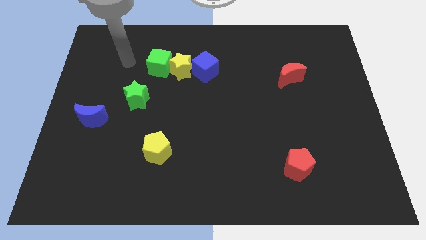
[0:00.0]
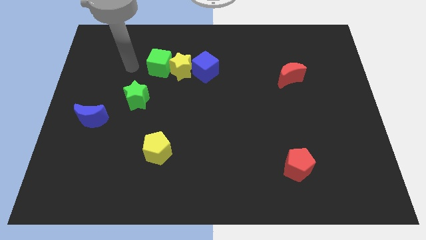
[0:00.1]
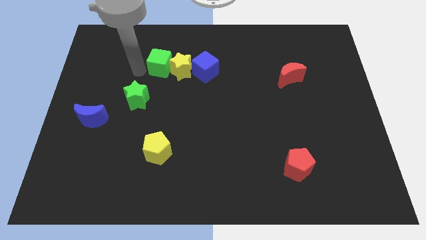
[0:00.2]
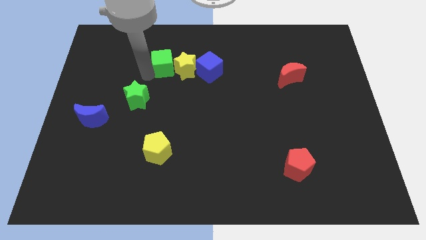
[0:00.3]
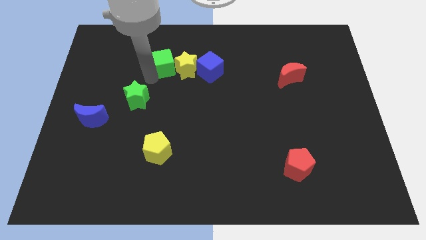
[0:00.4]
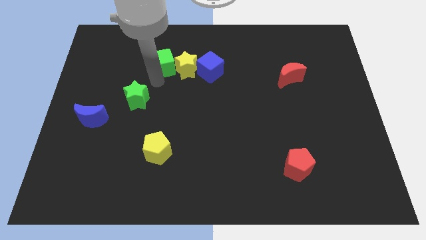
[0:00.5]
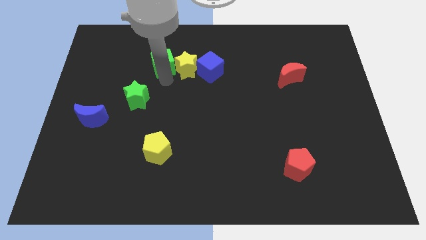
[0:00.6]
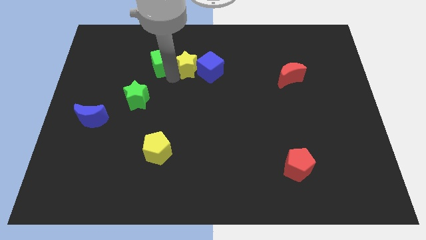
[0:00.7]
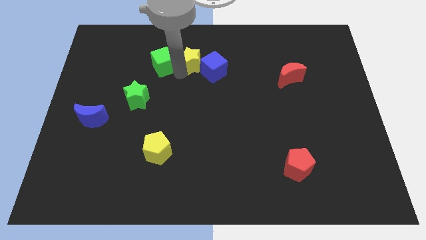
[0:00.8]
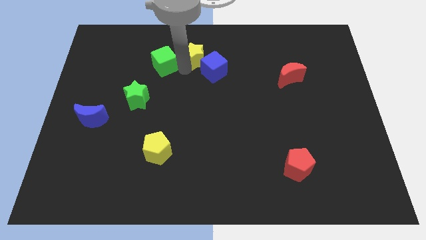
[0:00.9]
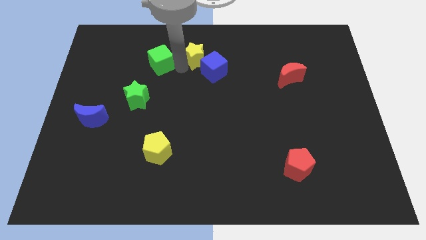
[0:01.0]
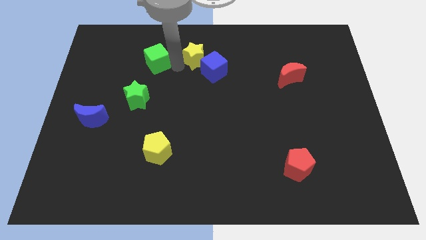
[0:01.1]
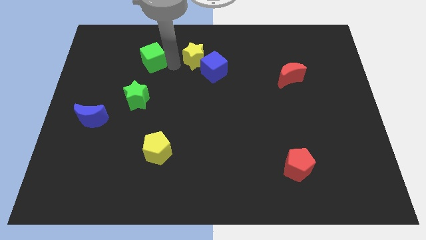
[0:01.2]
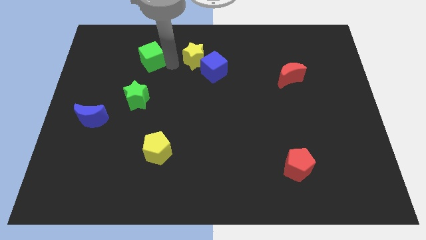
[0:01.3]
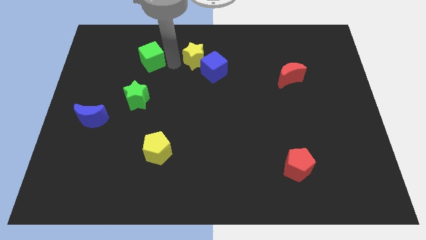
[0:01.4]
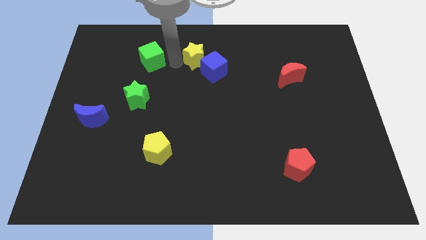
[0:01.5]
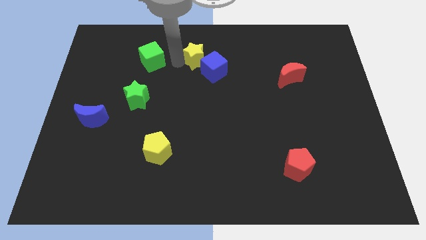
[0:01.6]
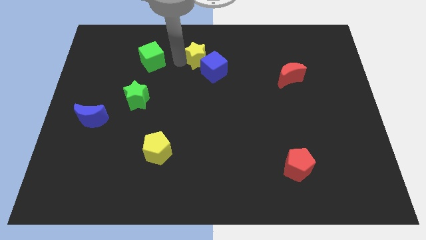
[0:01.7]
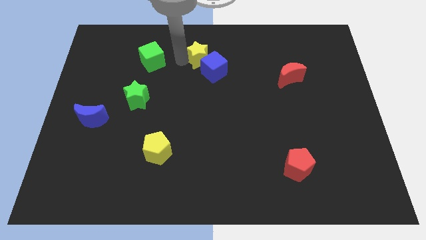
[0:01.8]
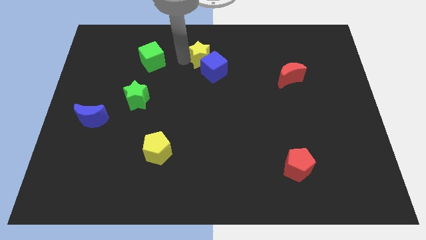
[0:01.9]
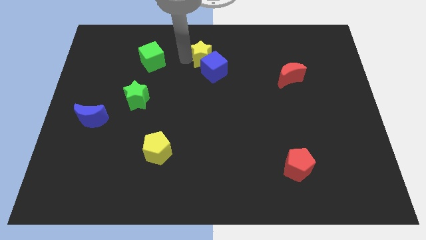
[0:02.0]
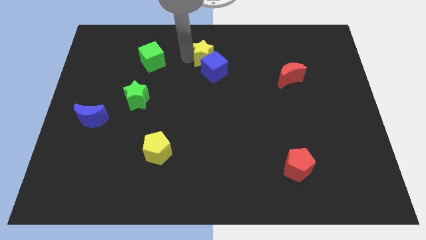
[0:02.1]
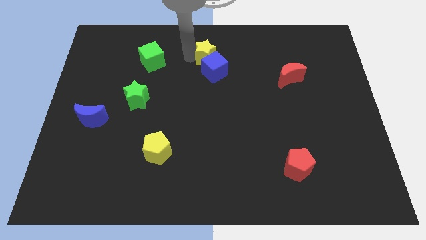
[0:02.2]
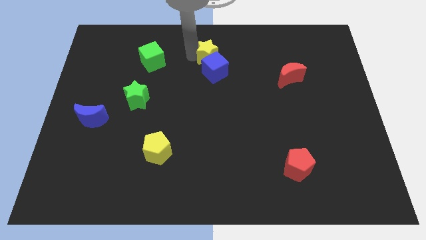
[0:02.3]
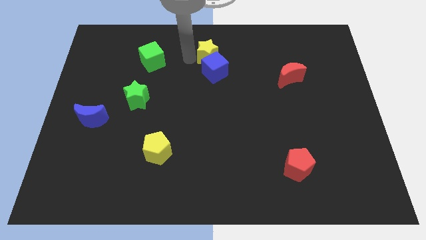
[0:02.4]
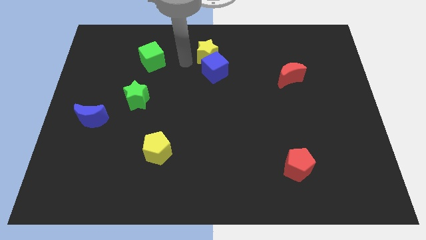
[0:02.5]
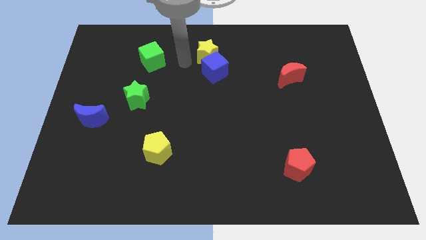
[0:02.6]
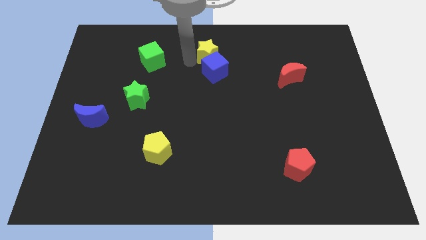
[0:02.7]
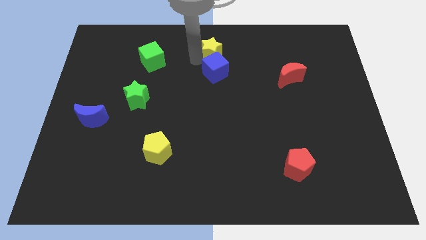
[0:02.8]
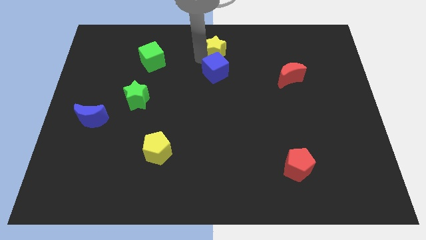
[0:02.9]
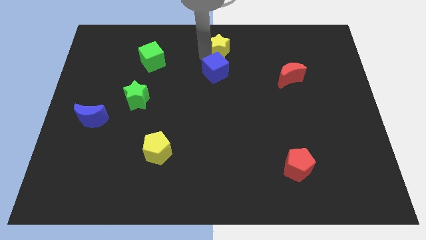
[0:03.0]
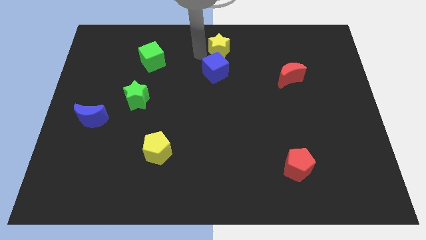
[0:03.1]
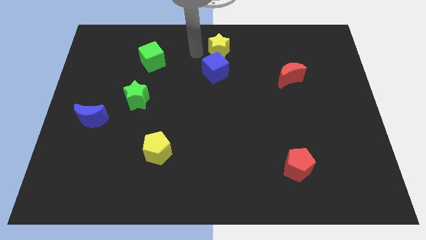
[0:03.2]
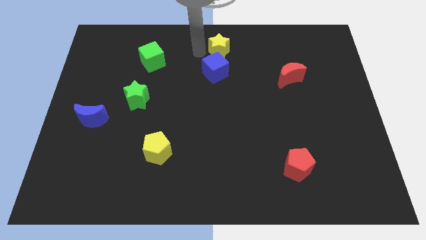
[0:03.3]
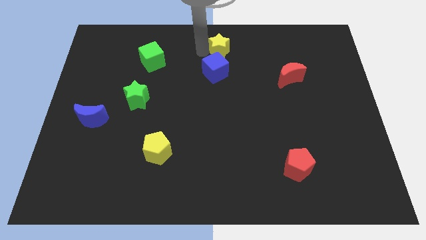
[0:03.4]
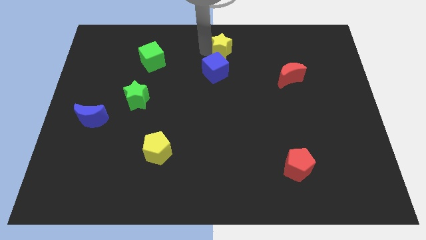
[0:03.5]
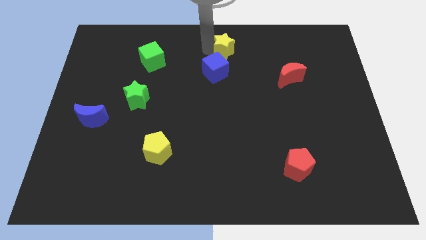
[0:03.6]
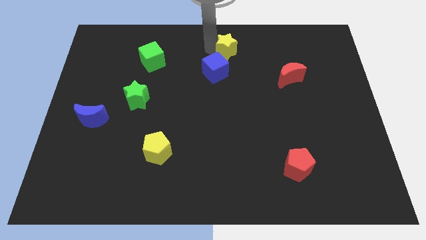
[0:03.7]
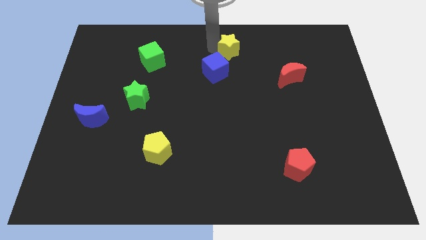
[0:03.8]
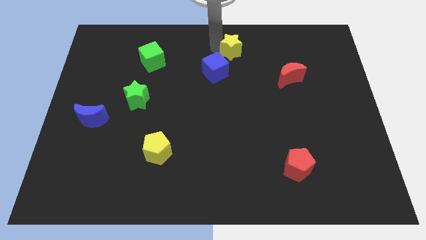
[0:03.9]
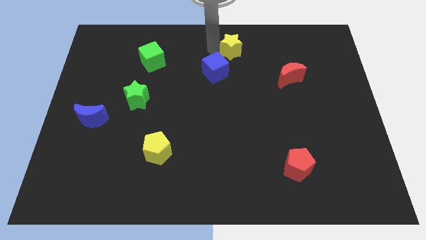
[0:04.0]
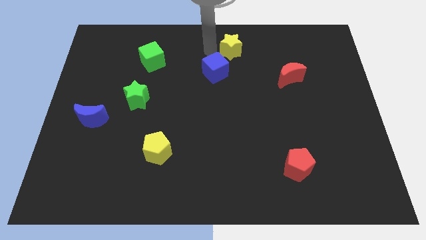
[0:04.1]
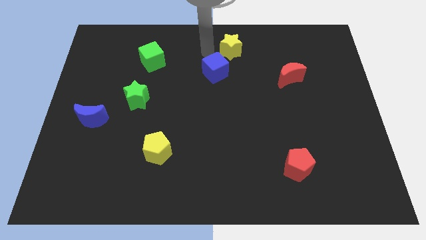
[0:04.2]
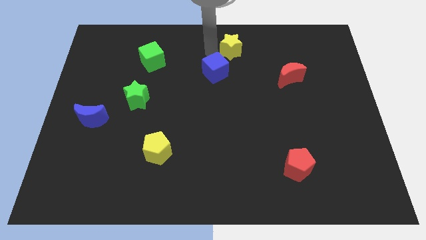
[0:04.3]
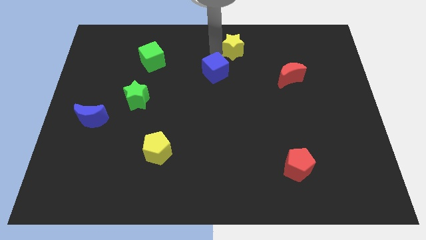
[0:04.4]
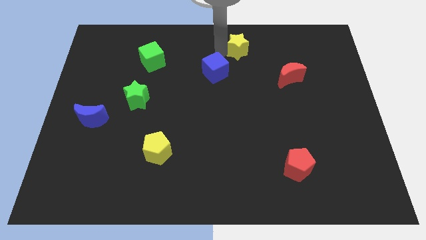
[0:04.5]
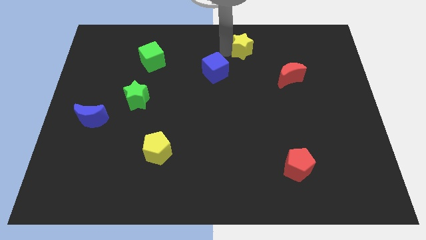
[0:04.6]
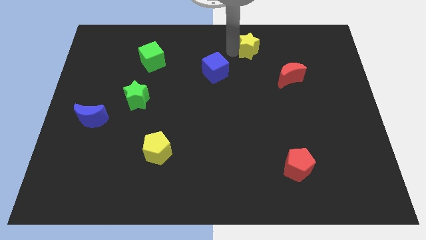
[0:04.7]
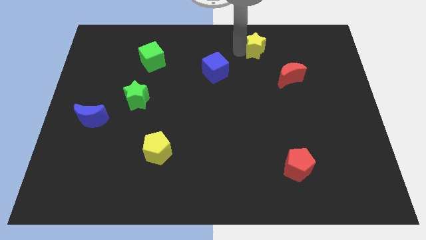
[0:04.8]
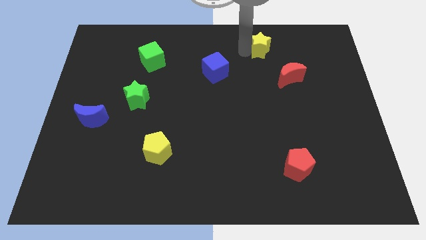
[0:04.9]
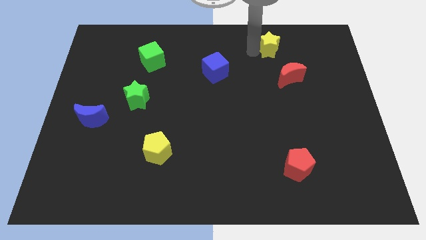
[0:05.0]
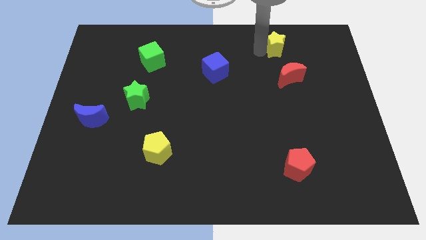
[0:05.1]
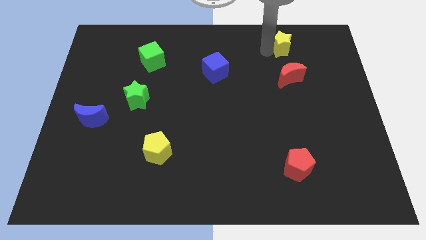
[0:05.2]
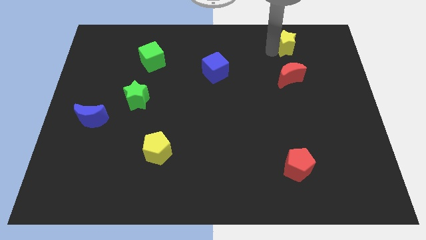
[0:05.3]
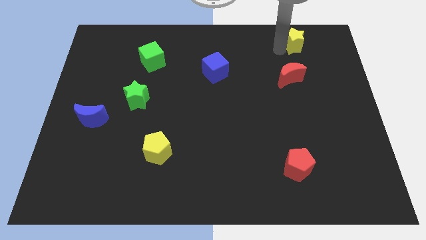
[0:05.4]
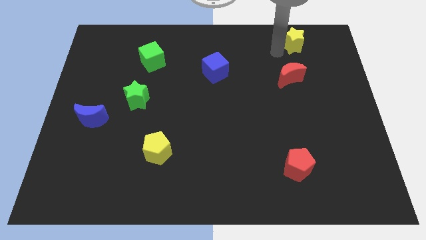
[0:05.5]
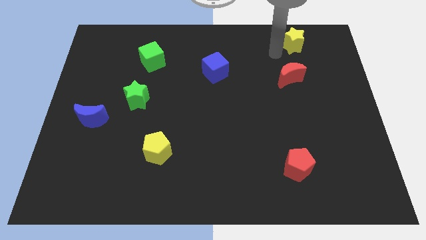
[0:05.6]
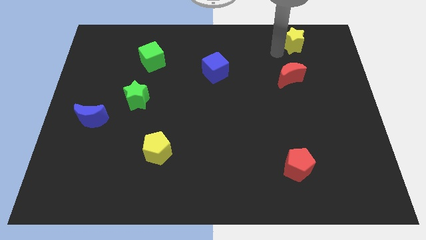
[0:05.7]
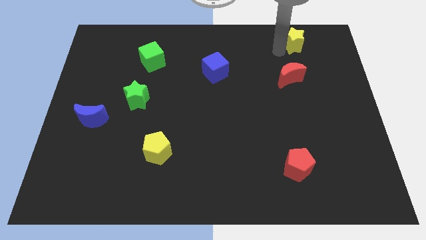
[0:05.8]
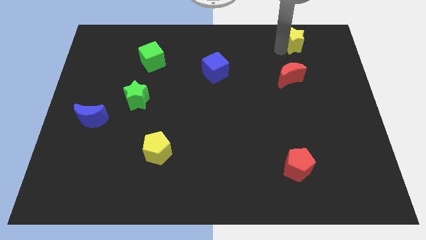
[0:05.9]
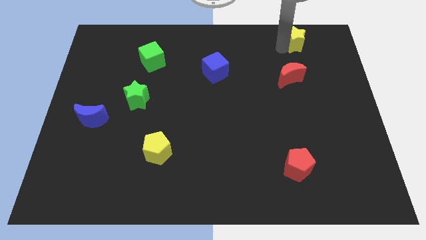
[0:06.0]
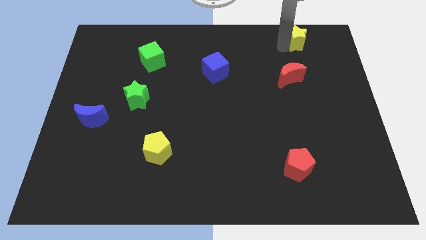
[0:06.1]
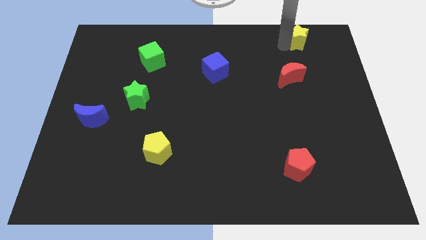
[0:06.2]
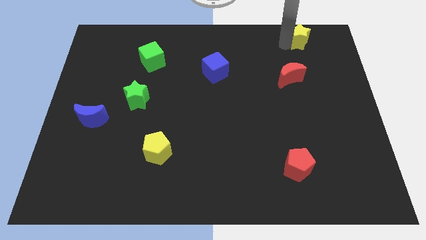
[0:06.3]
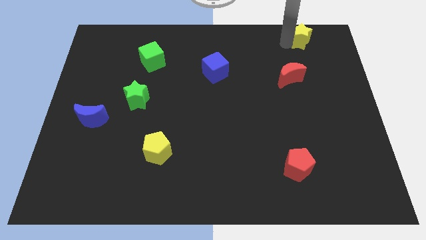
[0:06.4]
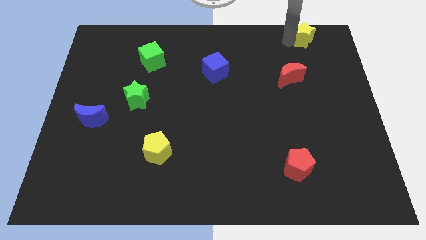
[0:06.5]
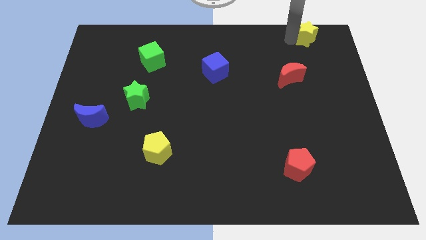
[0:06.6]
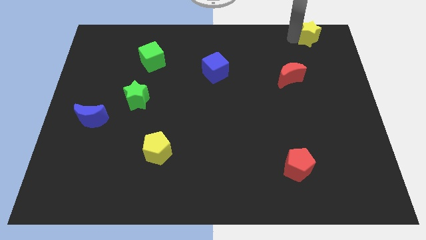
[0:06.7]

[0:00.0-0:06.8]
put the yellow star to the top right
